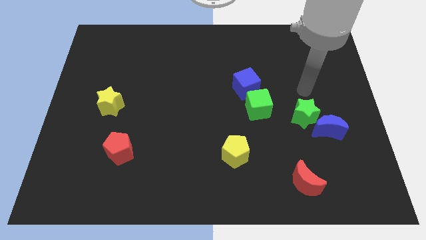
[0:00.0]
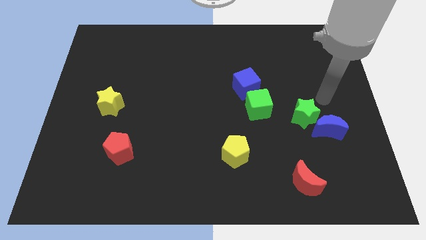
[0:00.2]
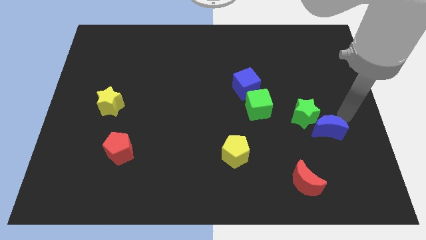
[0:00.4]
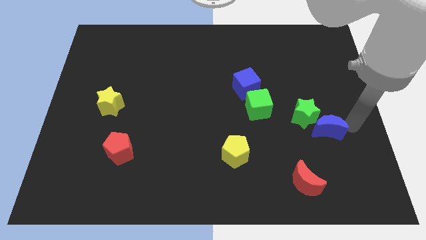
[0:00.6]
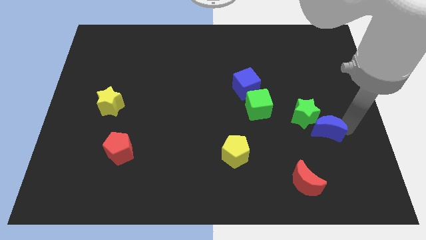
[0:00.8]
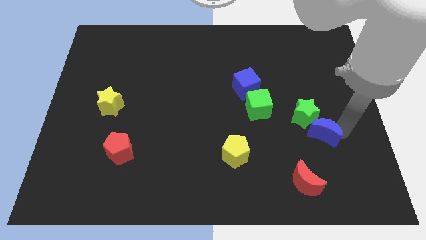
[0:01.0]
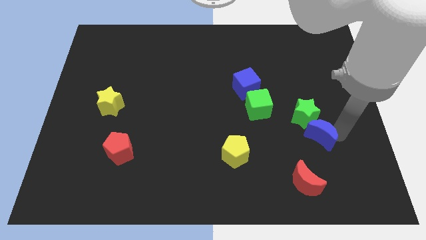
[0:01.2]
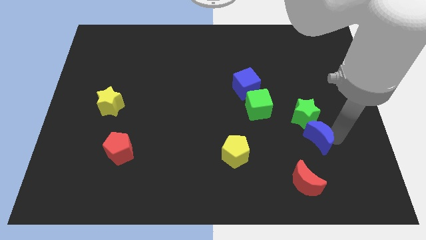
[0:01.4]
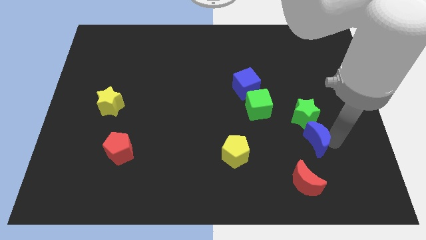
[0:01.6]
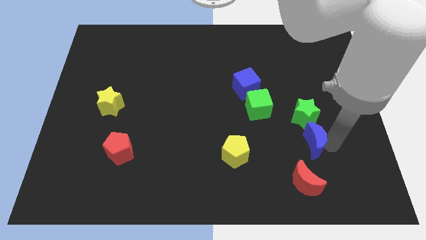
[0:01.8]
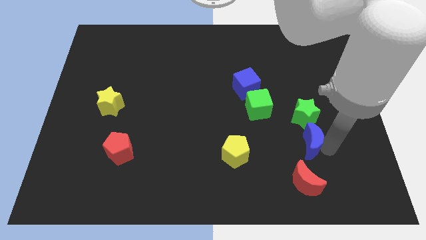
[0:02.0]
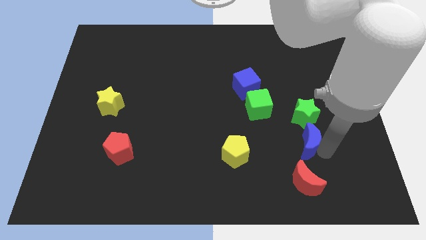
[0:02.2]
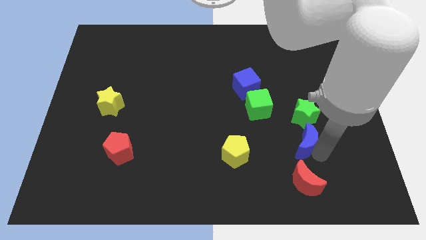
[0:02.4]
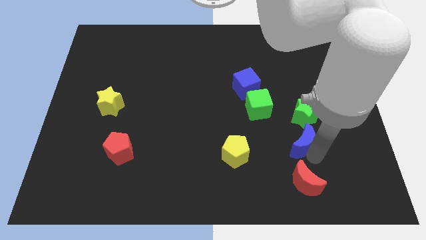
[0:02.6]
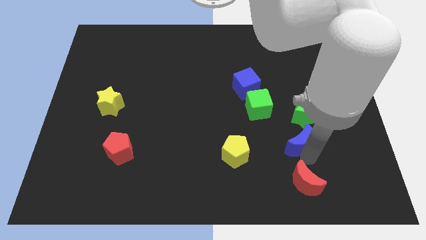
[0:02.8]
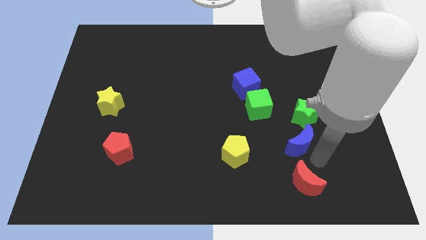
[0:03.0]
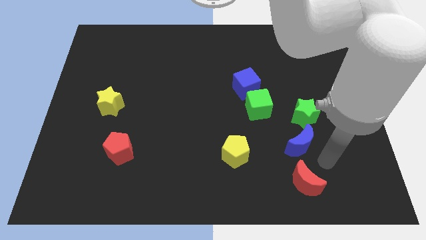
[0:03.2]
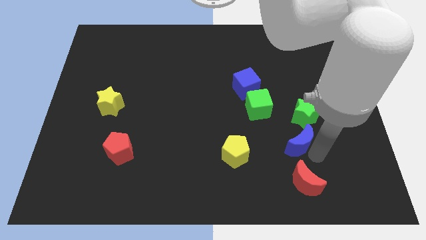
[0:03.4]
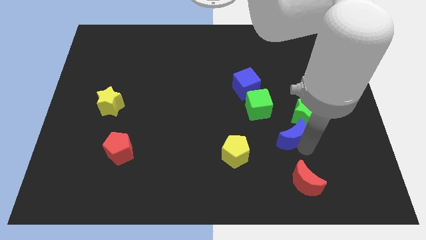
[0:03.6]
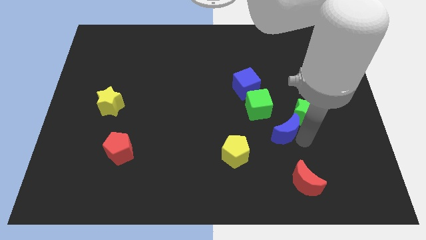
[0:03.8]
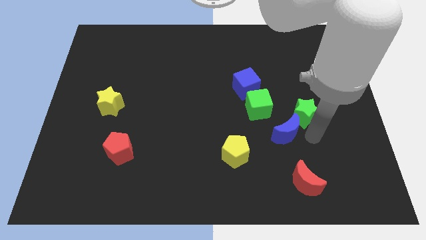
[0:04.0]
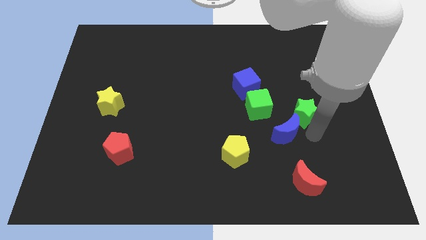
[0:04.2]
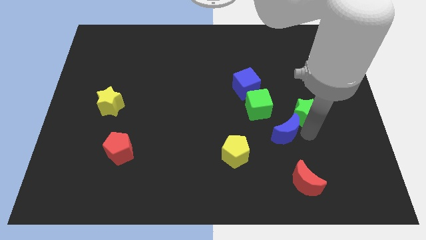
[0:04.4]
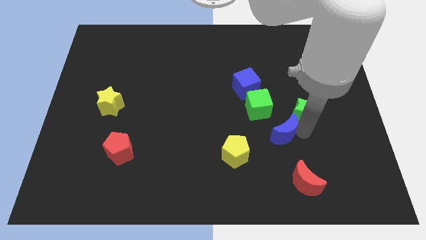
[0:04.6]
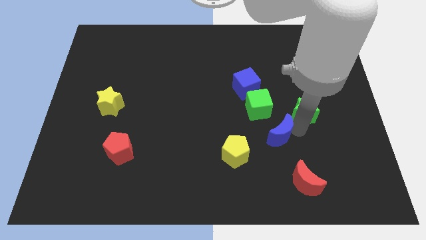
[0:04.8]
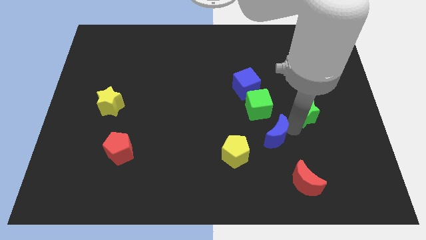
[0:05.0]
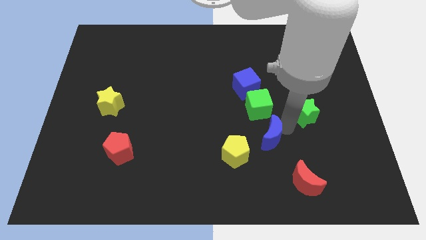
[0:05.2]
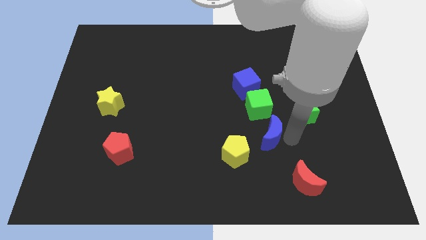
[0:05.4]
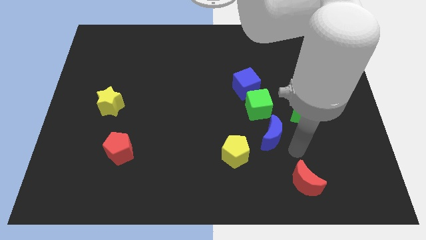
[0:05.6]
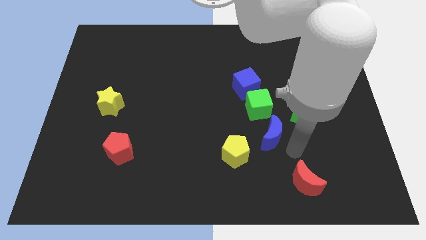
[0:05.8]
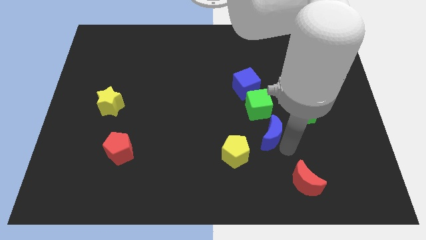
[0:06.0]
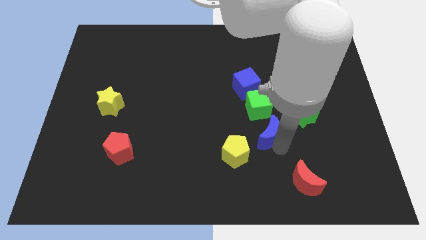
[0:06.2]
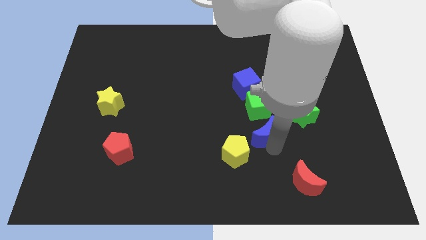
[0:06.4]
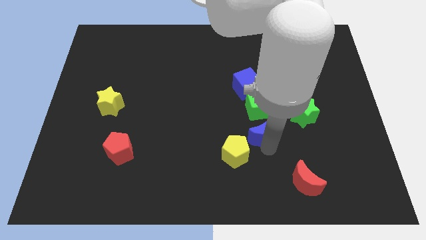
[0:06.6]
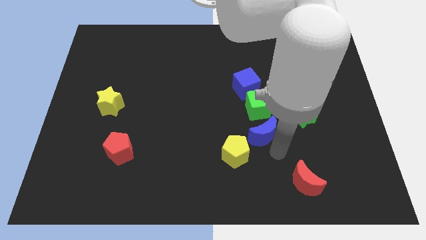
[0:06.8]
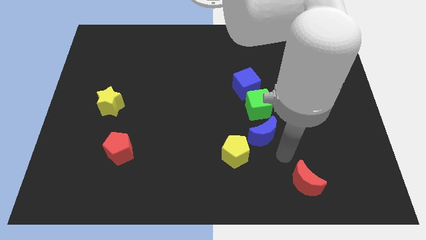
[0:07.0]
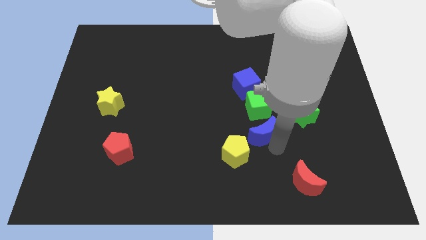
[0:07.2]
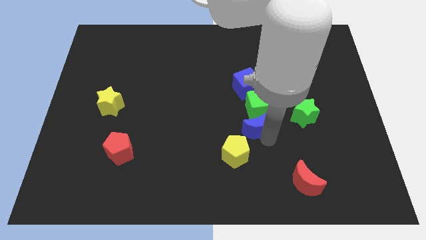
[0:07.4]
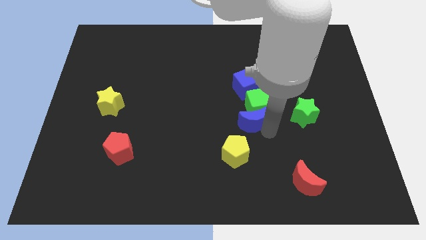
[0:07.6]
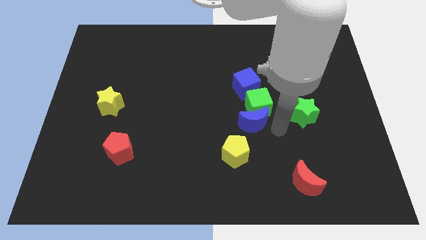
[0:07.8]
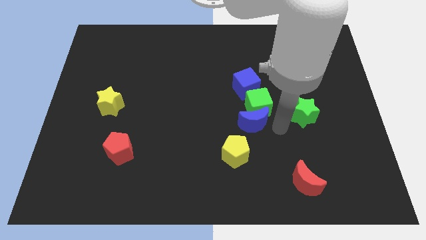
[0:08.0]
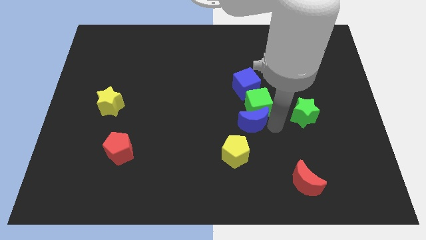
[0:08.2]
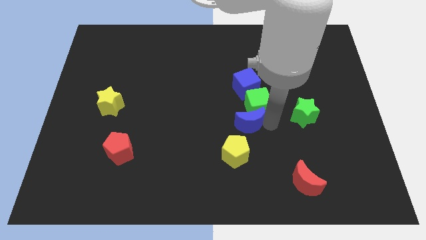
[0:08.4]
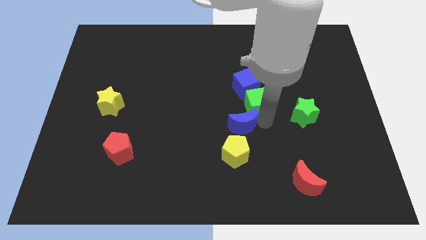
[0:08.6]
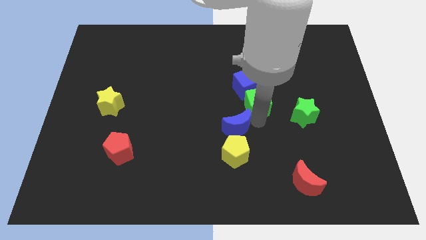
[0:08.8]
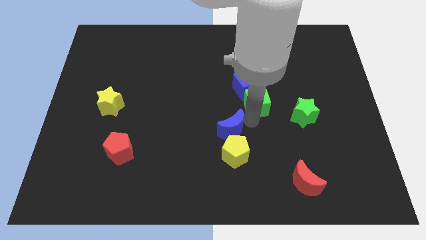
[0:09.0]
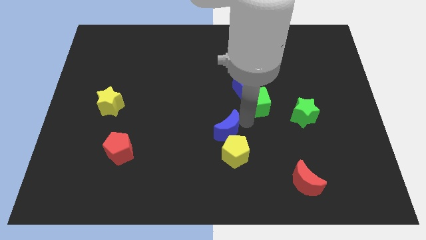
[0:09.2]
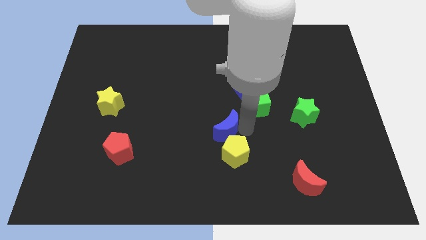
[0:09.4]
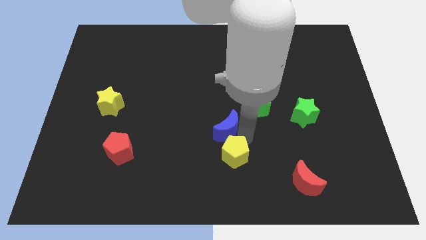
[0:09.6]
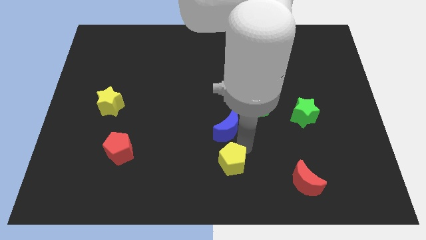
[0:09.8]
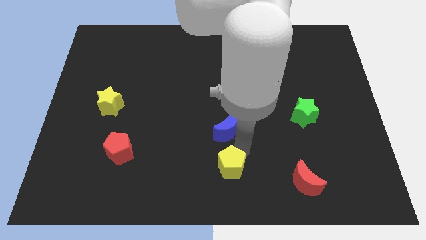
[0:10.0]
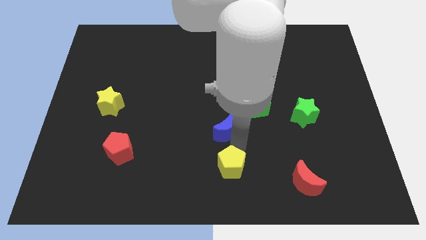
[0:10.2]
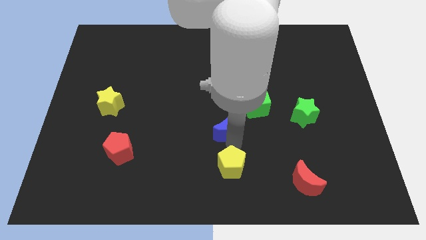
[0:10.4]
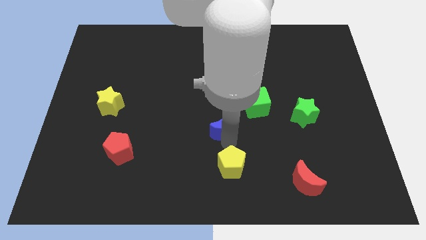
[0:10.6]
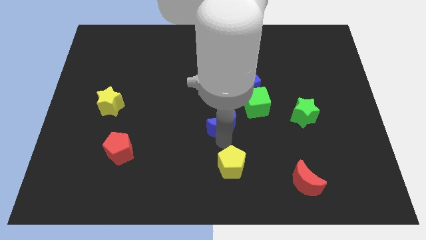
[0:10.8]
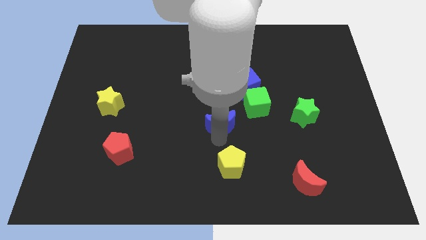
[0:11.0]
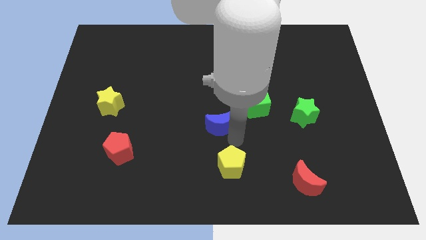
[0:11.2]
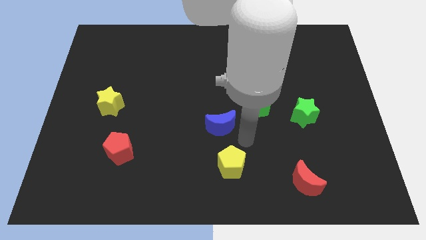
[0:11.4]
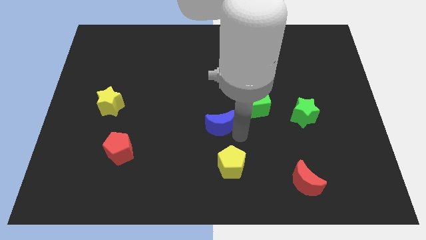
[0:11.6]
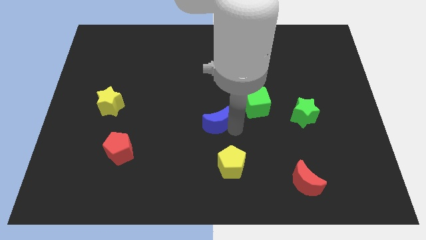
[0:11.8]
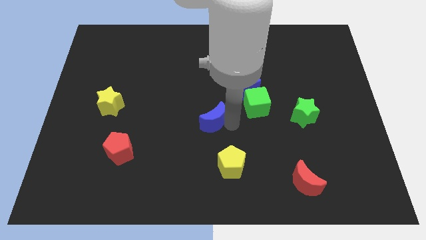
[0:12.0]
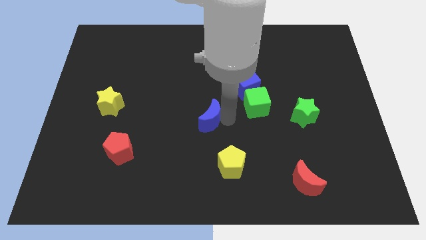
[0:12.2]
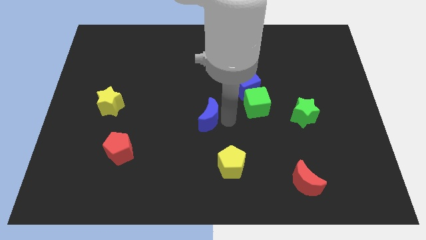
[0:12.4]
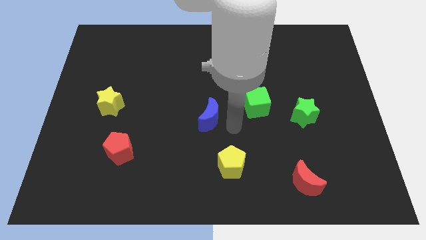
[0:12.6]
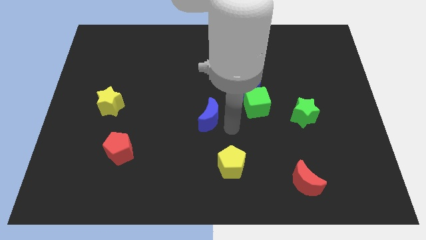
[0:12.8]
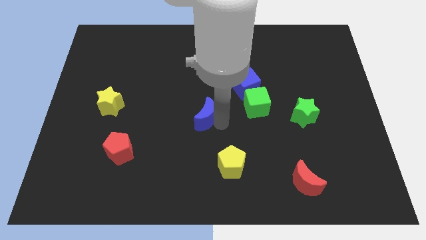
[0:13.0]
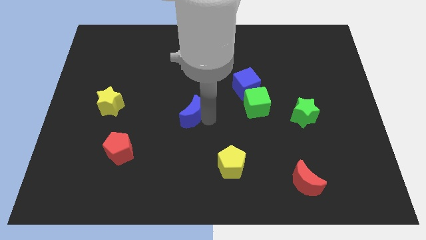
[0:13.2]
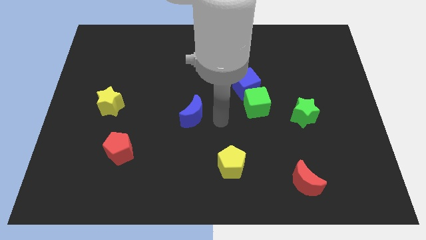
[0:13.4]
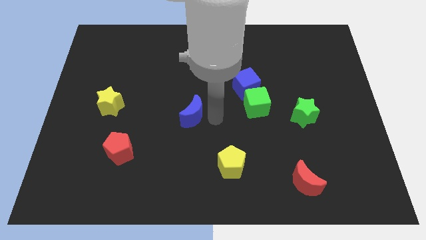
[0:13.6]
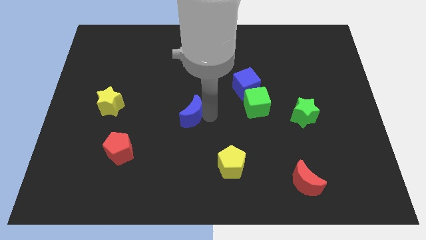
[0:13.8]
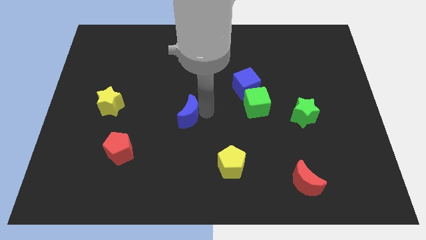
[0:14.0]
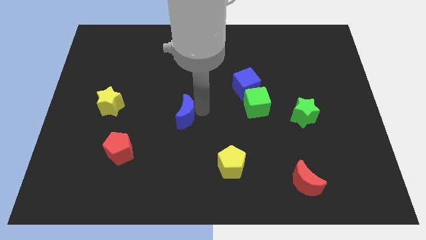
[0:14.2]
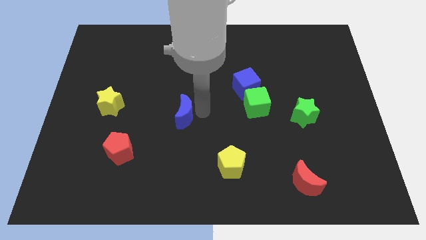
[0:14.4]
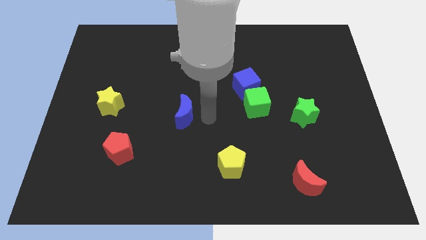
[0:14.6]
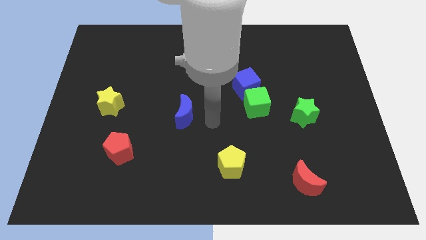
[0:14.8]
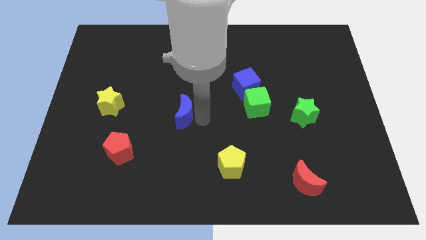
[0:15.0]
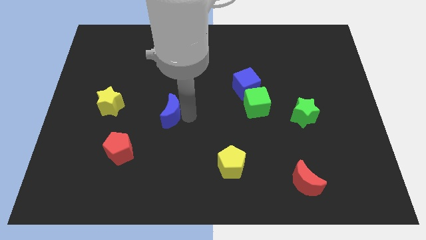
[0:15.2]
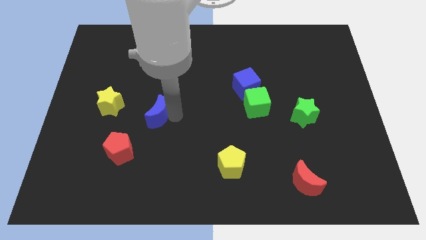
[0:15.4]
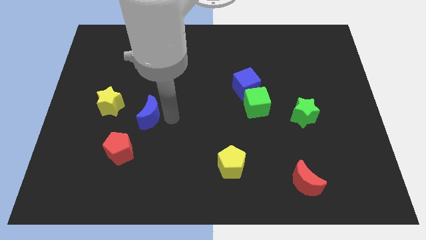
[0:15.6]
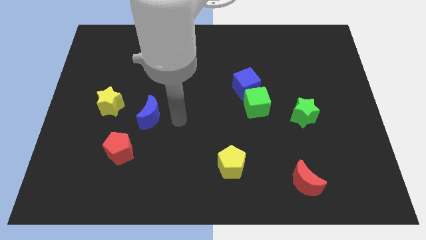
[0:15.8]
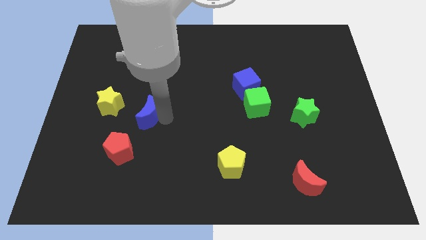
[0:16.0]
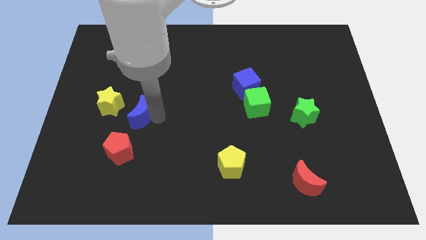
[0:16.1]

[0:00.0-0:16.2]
put the blue moon to the top of the red pentagon
